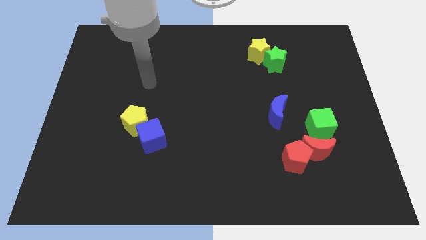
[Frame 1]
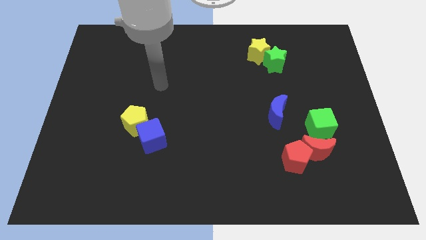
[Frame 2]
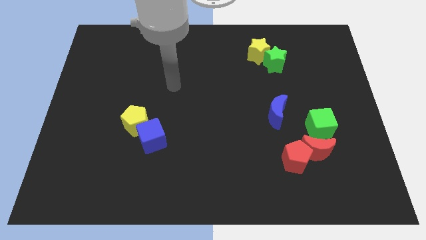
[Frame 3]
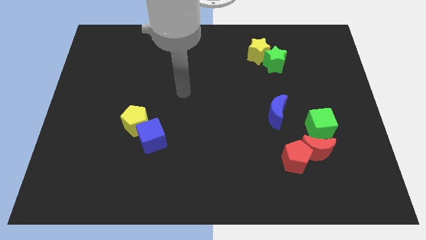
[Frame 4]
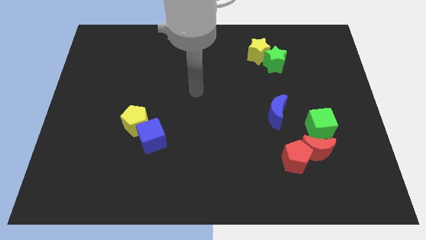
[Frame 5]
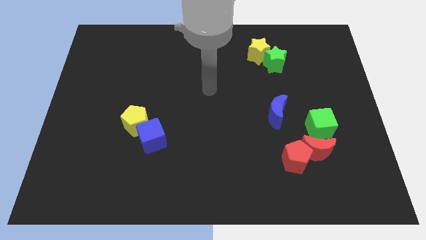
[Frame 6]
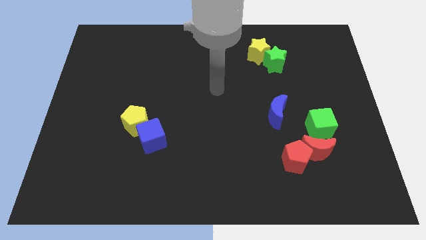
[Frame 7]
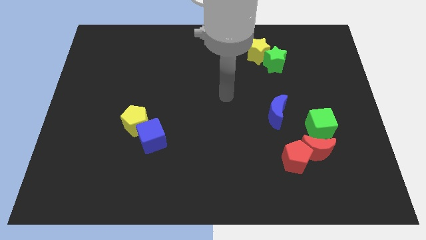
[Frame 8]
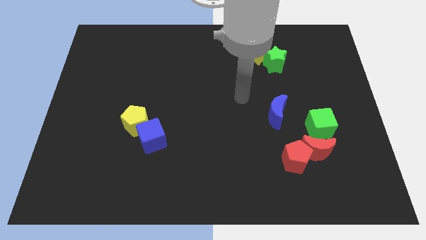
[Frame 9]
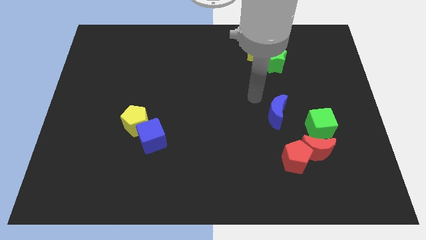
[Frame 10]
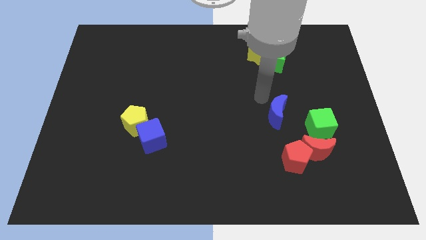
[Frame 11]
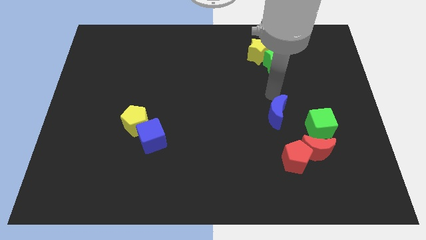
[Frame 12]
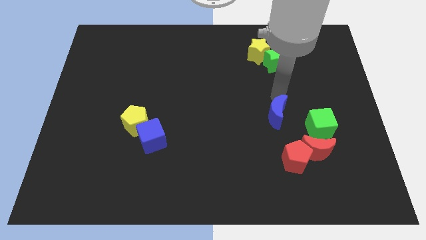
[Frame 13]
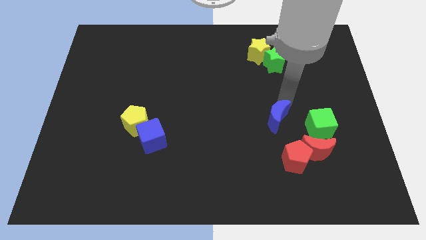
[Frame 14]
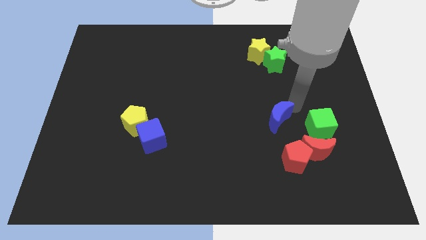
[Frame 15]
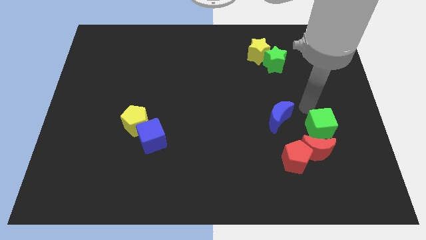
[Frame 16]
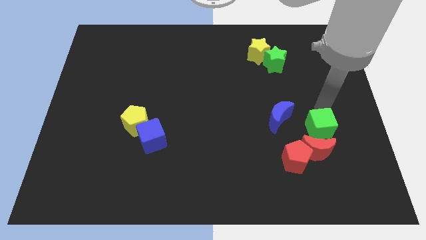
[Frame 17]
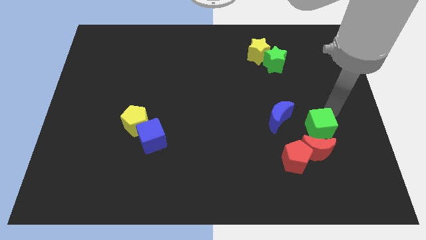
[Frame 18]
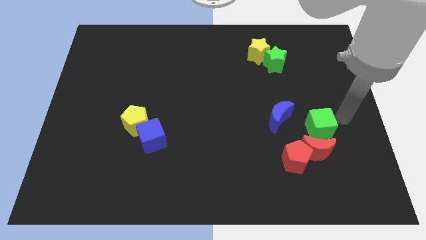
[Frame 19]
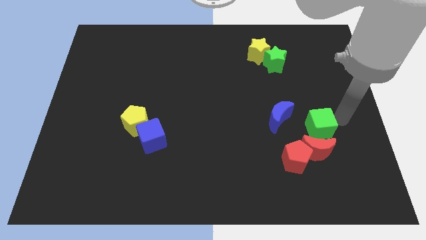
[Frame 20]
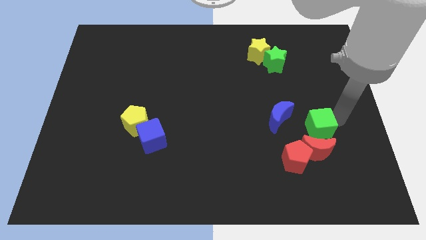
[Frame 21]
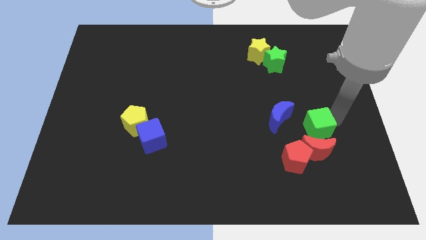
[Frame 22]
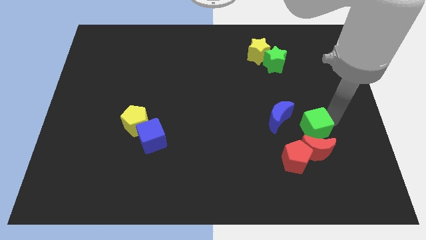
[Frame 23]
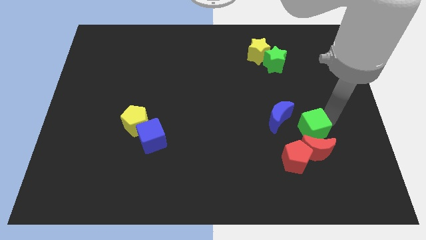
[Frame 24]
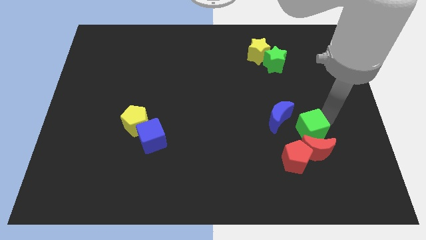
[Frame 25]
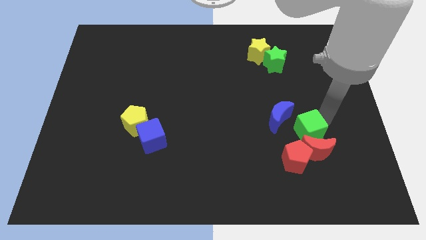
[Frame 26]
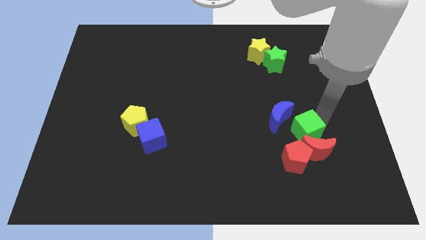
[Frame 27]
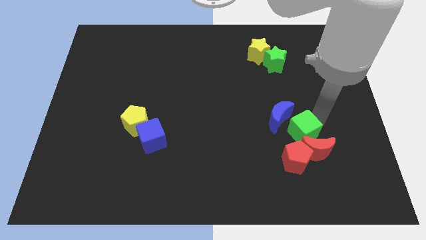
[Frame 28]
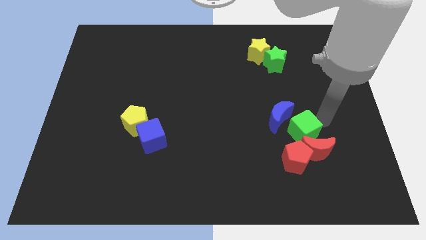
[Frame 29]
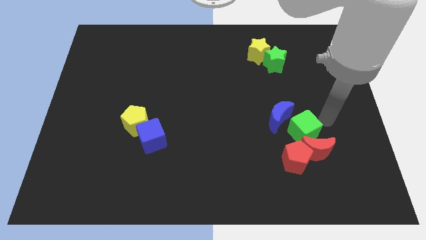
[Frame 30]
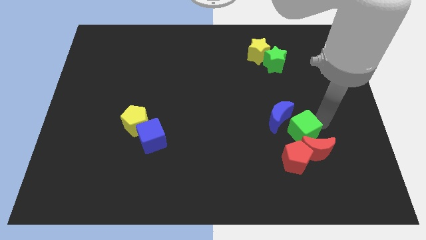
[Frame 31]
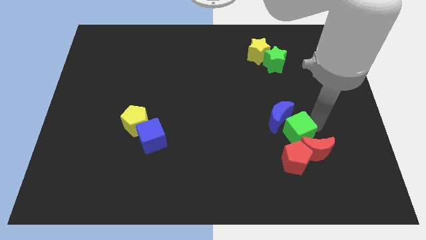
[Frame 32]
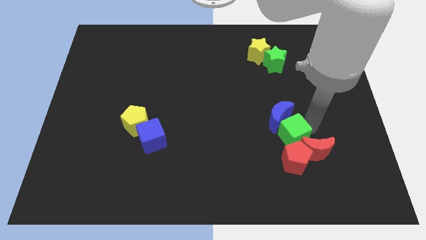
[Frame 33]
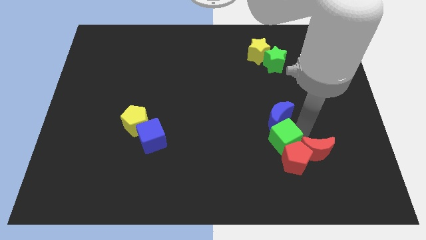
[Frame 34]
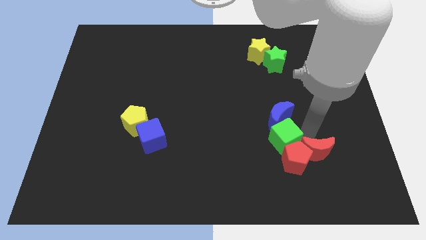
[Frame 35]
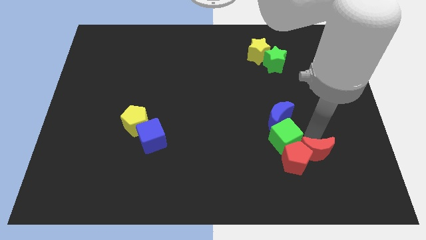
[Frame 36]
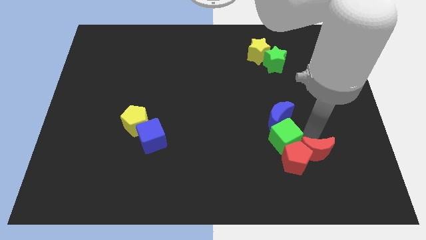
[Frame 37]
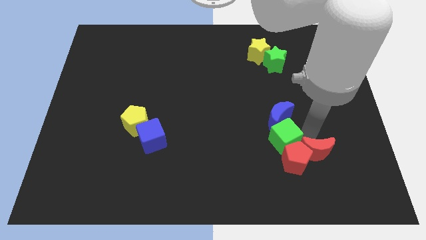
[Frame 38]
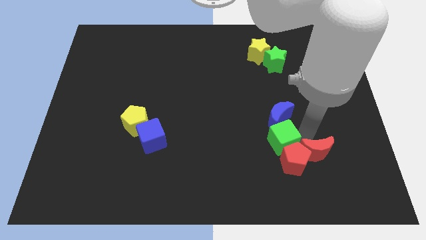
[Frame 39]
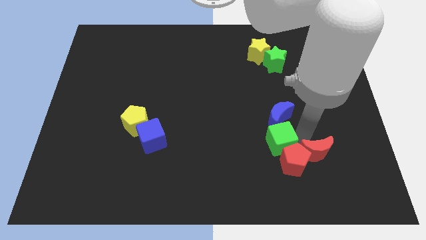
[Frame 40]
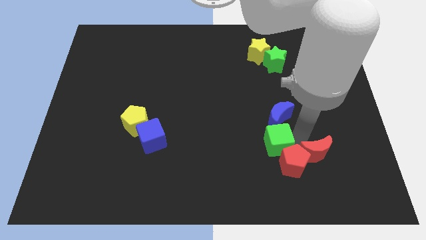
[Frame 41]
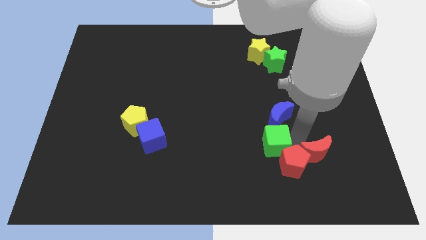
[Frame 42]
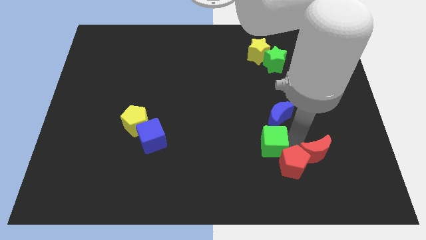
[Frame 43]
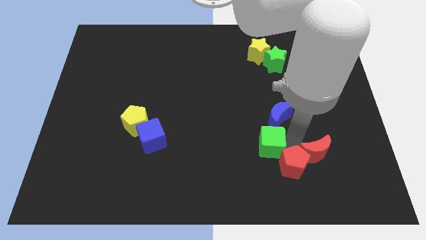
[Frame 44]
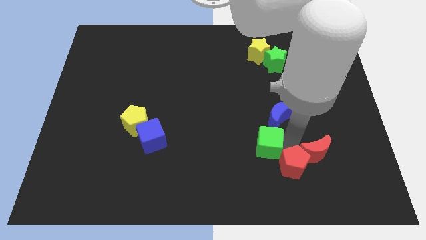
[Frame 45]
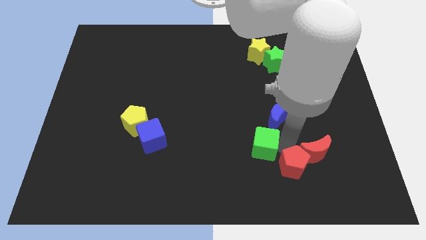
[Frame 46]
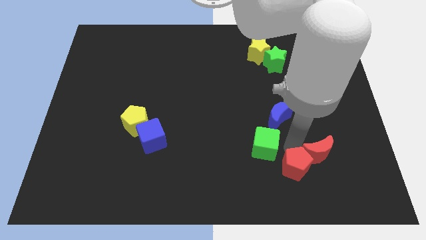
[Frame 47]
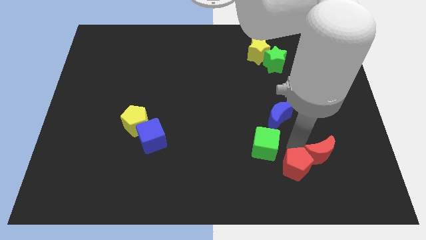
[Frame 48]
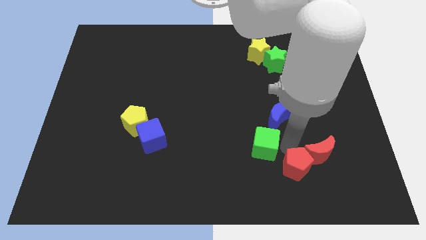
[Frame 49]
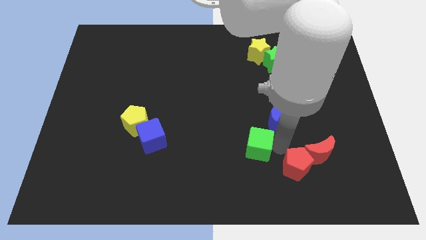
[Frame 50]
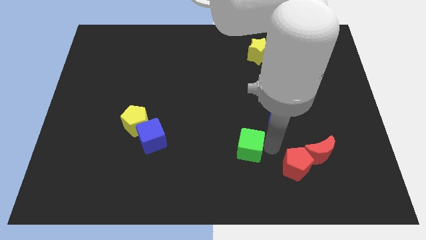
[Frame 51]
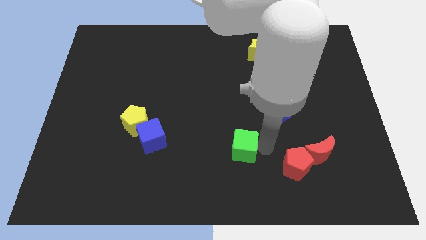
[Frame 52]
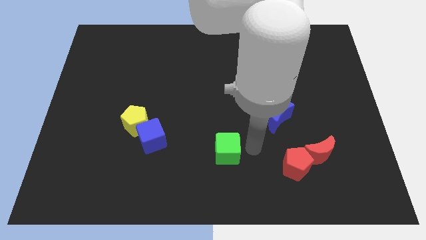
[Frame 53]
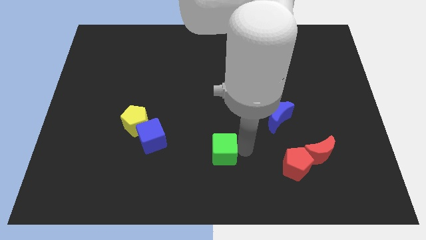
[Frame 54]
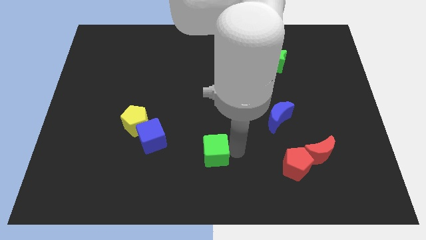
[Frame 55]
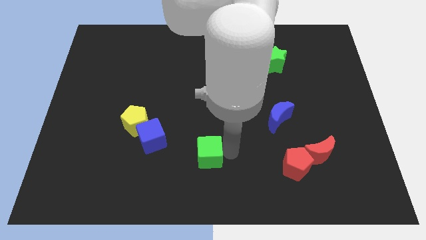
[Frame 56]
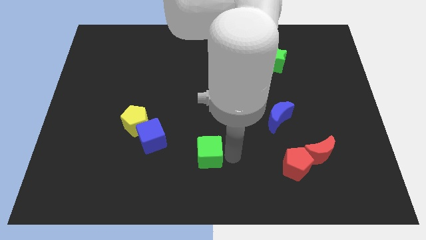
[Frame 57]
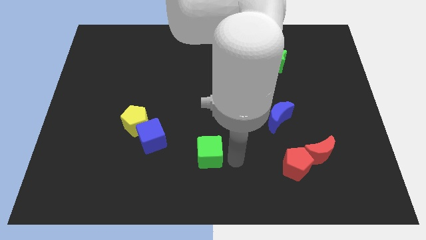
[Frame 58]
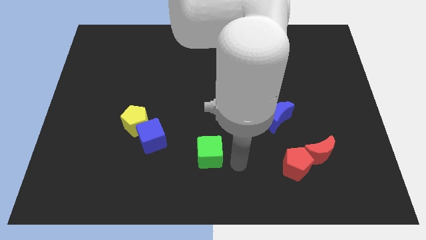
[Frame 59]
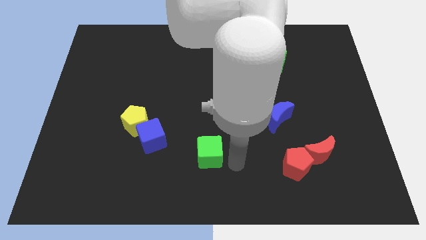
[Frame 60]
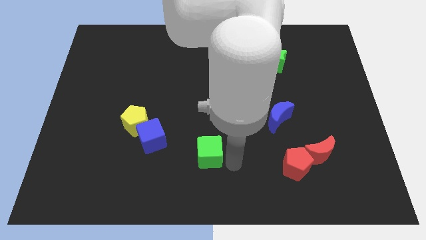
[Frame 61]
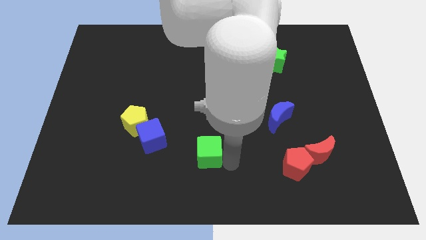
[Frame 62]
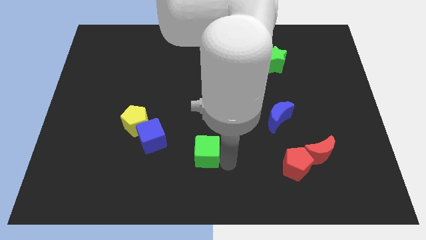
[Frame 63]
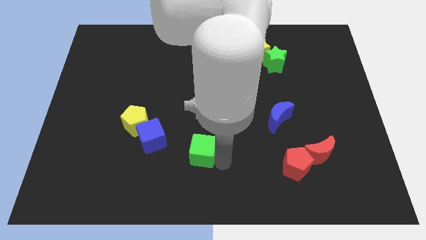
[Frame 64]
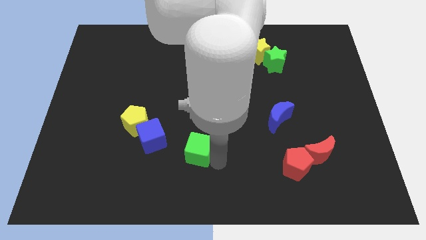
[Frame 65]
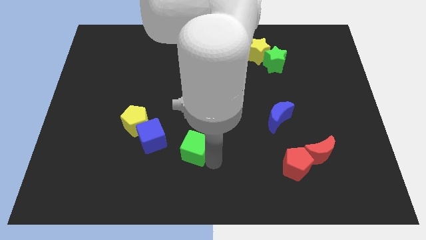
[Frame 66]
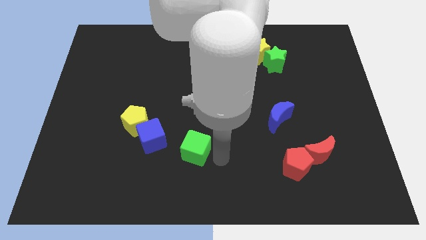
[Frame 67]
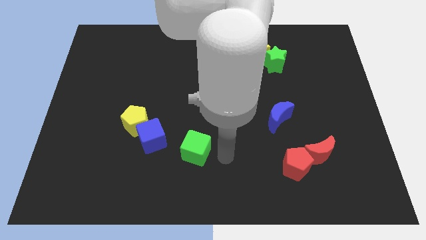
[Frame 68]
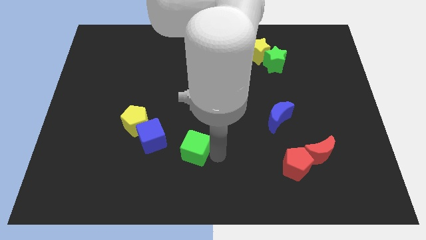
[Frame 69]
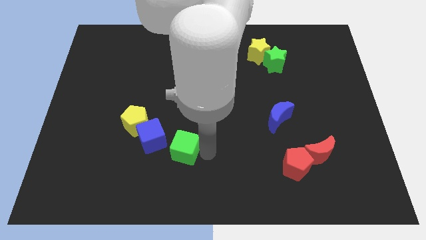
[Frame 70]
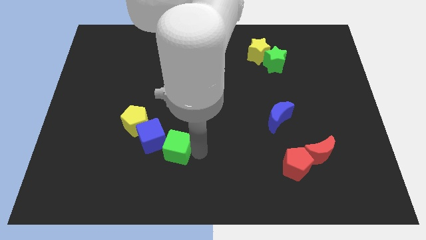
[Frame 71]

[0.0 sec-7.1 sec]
slide the green cube diagonally down and to the right of the yellow pentagon
